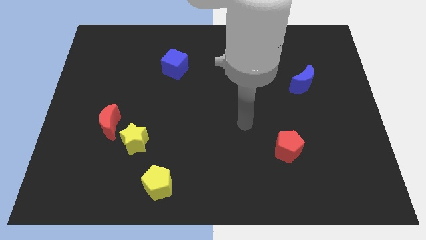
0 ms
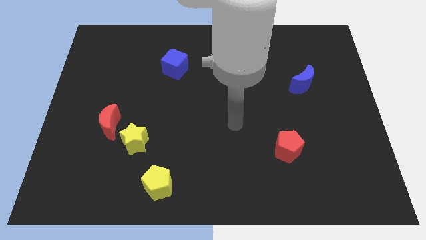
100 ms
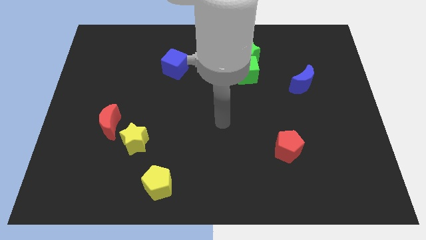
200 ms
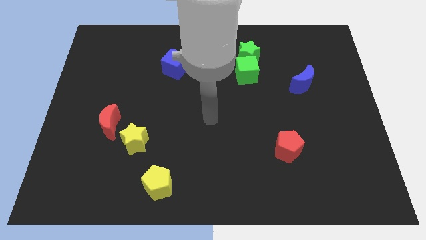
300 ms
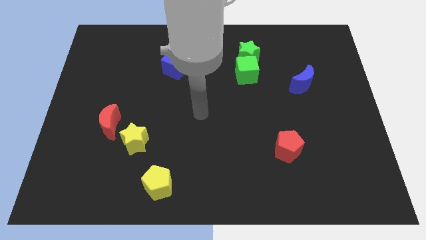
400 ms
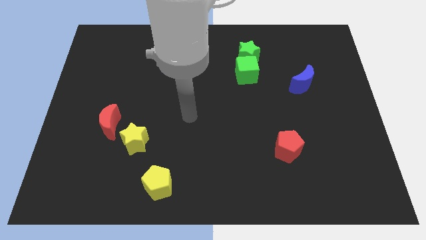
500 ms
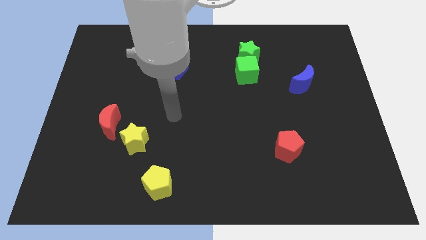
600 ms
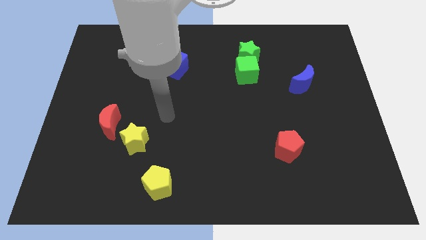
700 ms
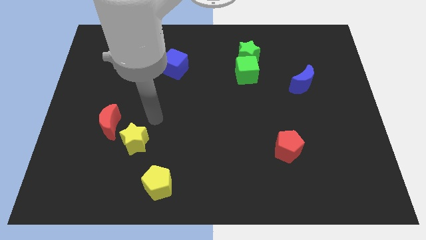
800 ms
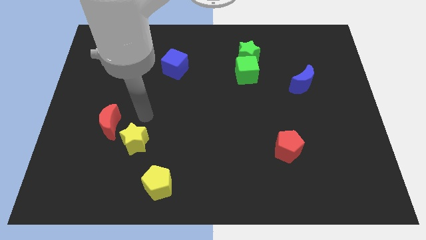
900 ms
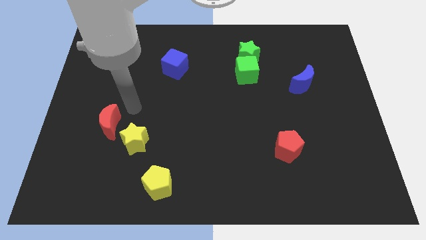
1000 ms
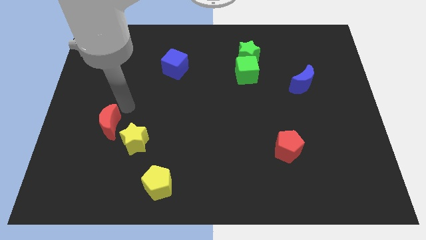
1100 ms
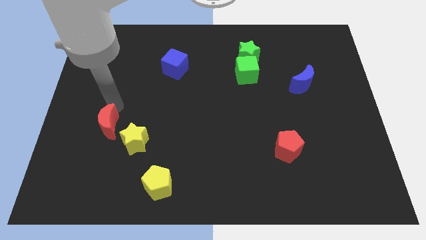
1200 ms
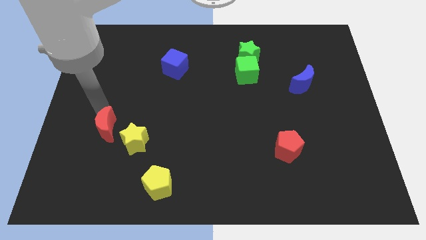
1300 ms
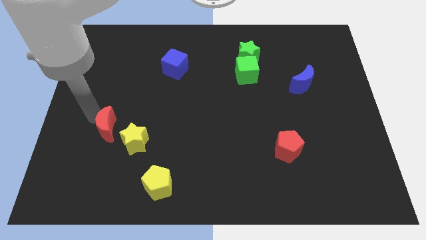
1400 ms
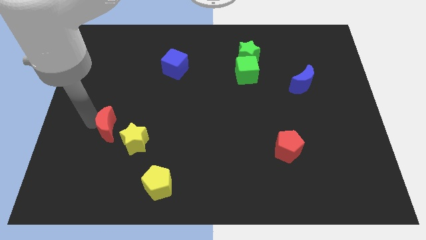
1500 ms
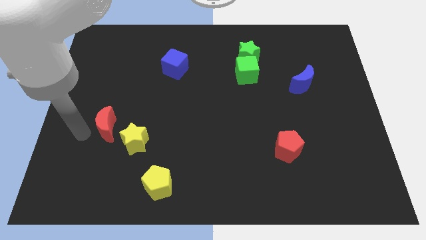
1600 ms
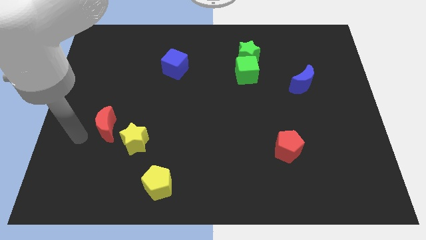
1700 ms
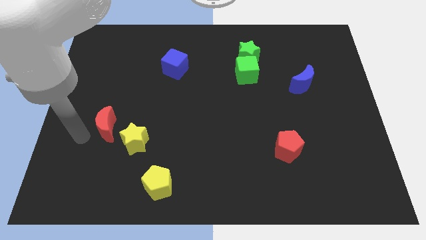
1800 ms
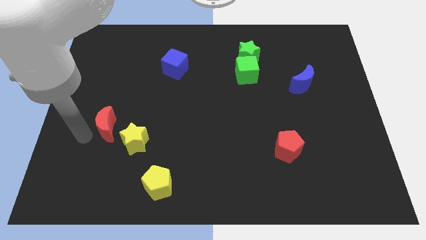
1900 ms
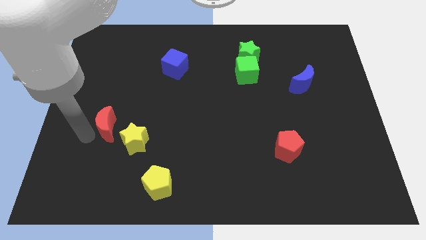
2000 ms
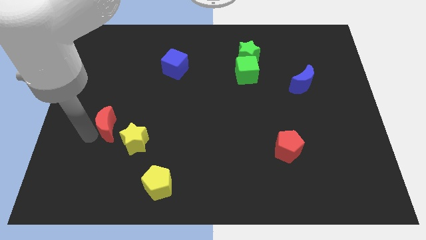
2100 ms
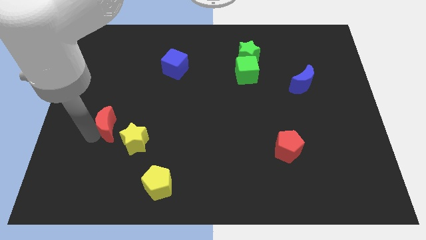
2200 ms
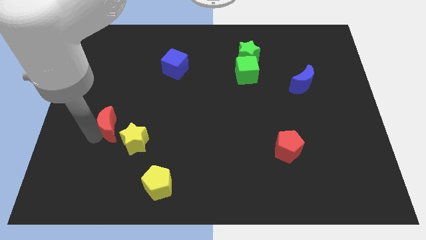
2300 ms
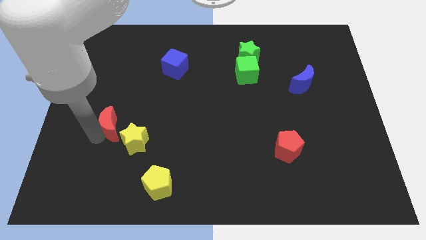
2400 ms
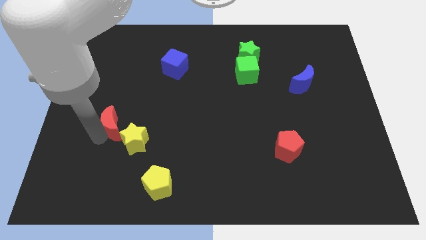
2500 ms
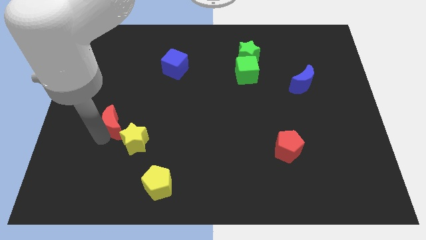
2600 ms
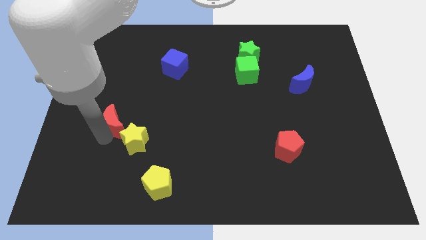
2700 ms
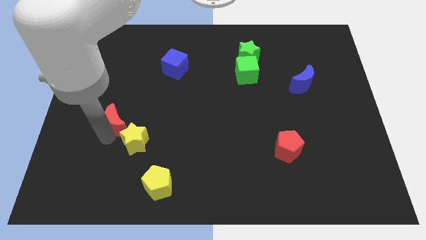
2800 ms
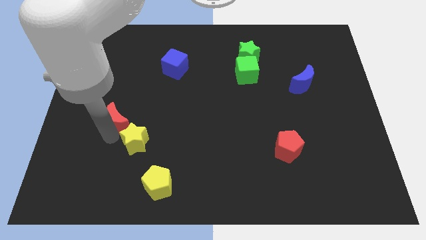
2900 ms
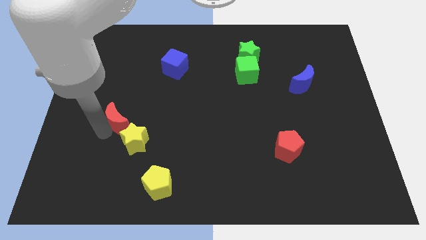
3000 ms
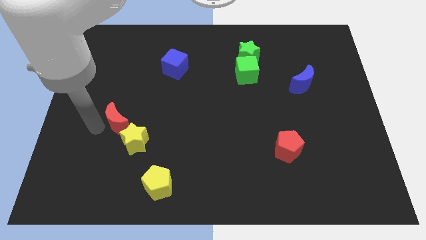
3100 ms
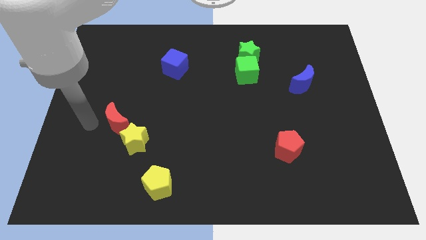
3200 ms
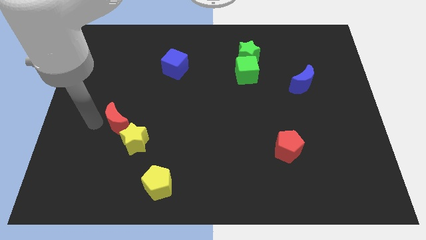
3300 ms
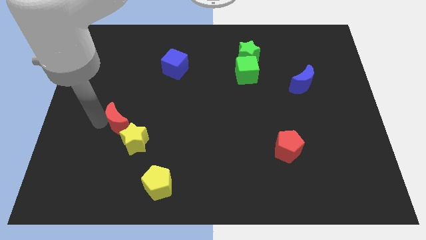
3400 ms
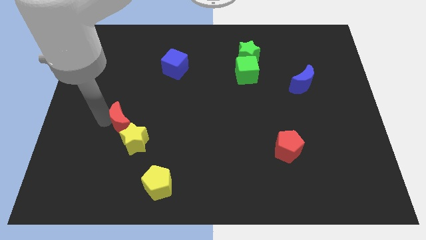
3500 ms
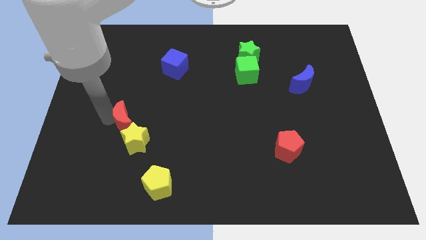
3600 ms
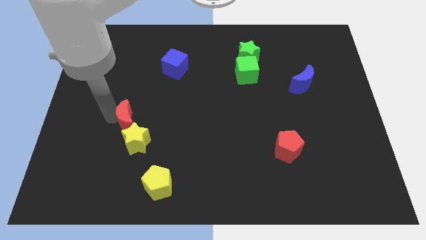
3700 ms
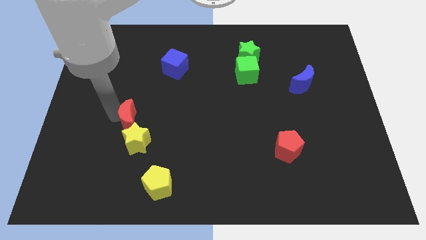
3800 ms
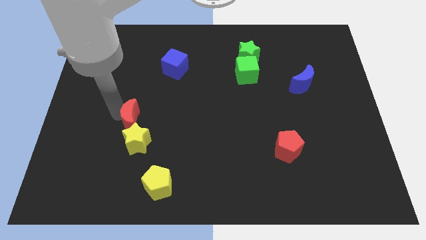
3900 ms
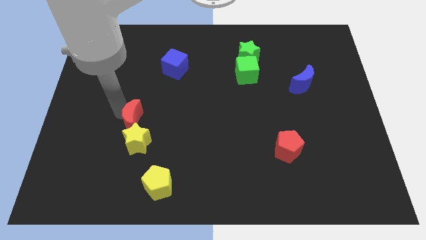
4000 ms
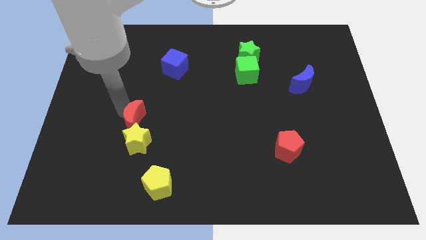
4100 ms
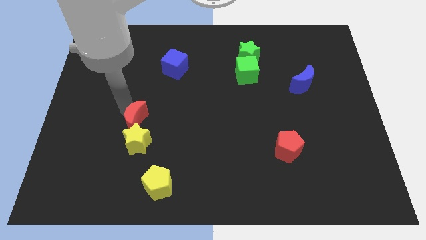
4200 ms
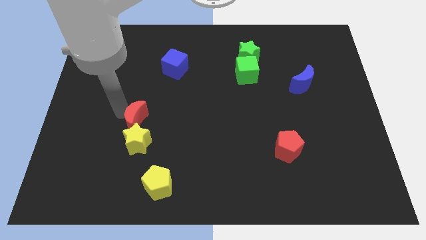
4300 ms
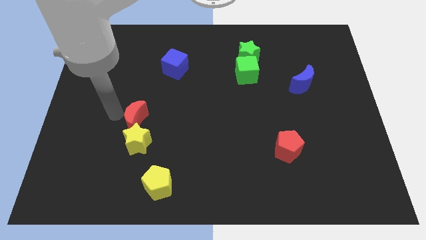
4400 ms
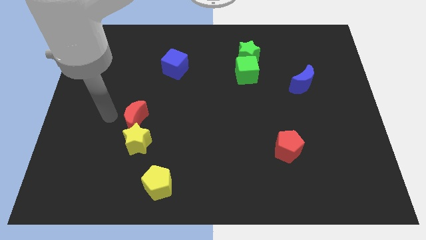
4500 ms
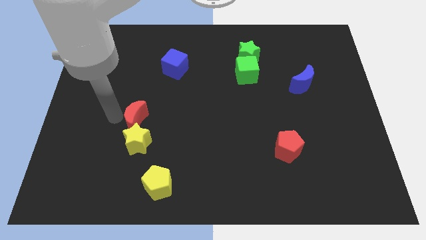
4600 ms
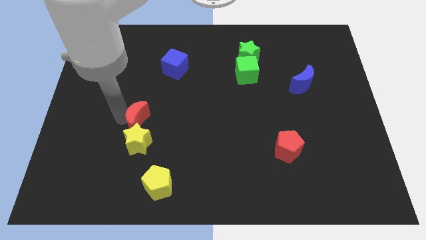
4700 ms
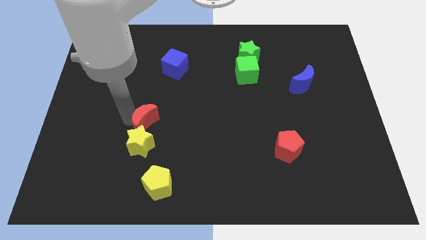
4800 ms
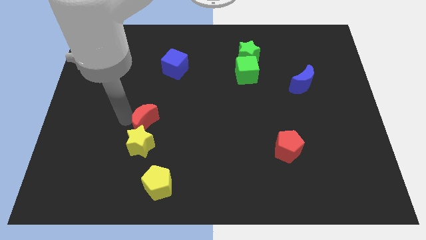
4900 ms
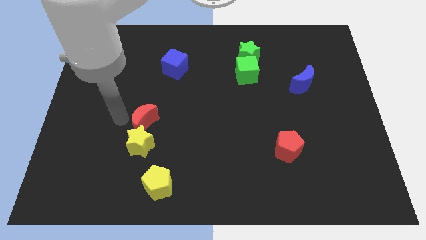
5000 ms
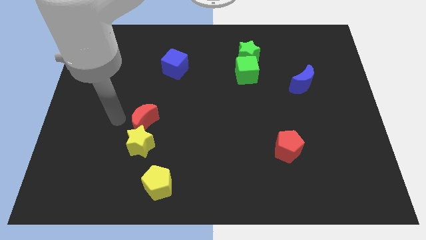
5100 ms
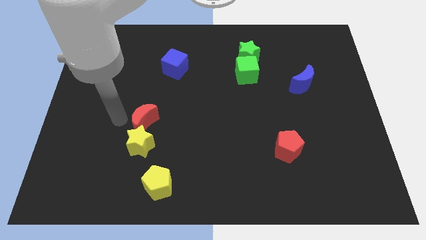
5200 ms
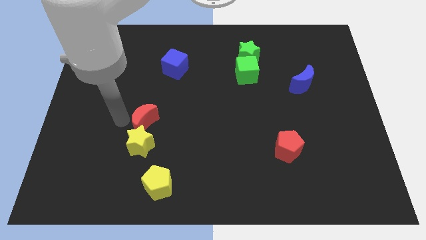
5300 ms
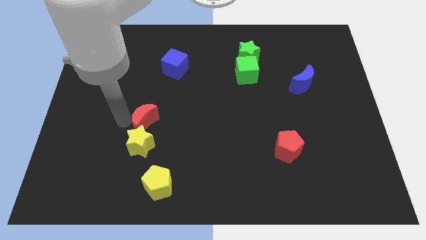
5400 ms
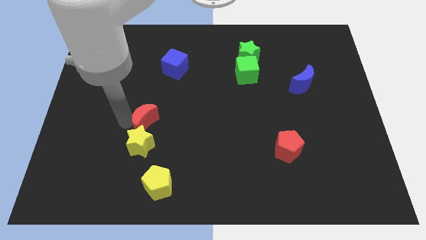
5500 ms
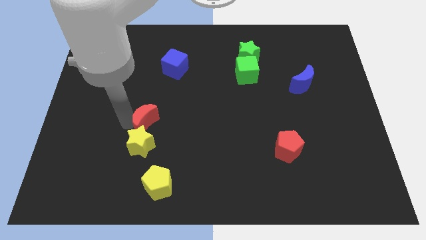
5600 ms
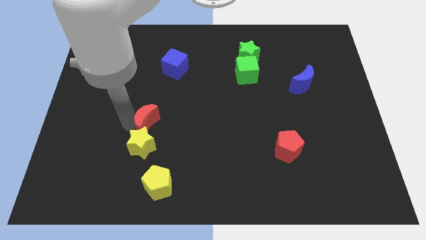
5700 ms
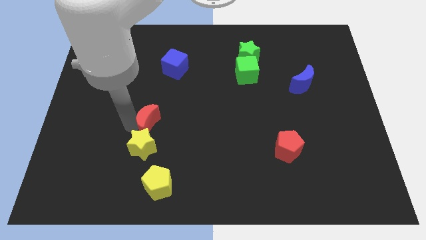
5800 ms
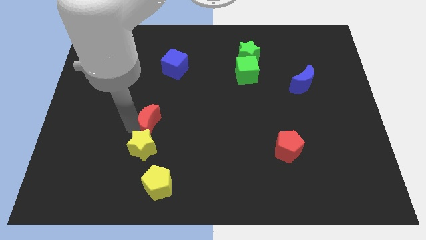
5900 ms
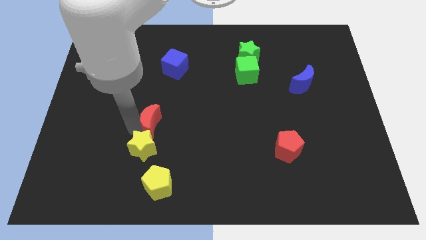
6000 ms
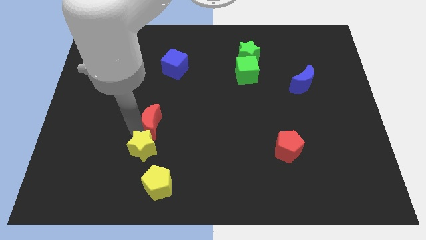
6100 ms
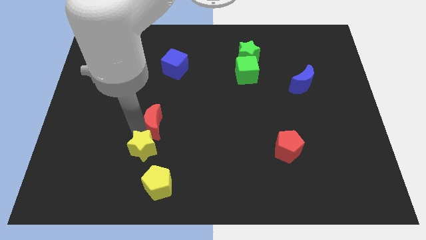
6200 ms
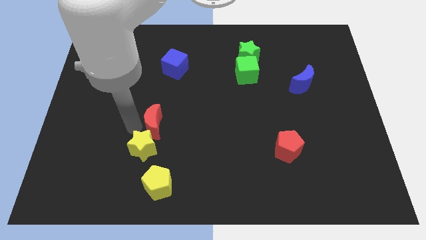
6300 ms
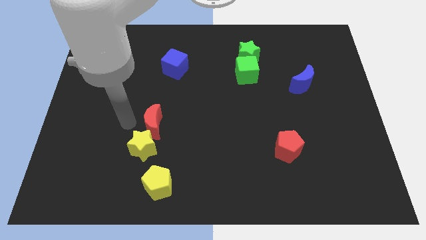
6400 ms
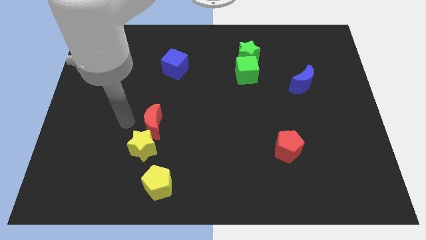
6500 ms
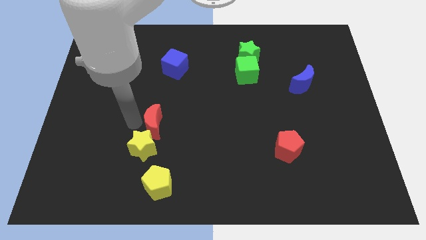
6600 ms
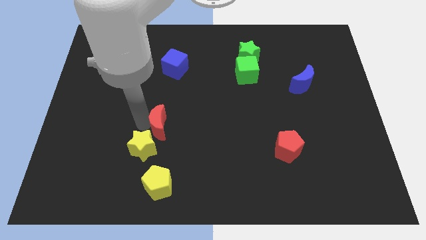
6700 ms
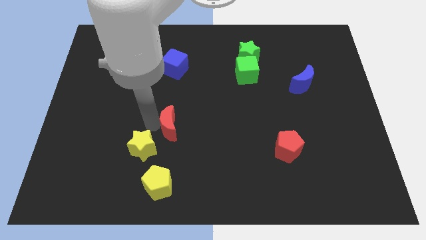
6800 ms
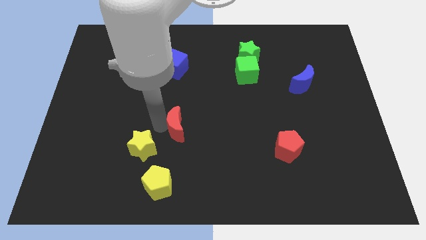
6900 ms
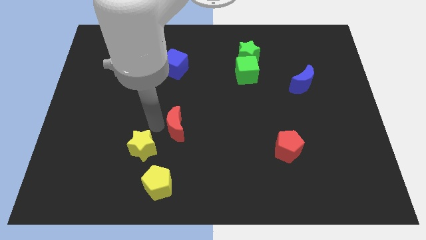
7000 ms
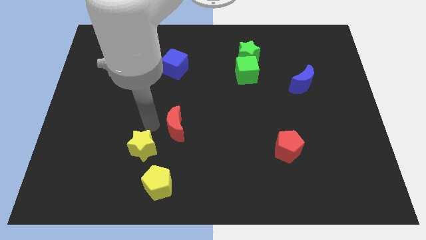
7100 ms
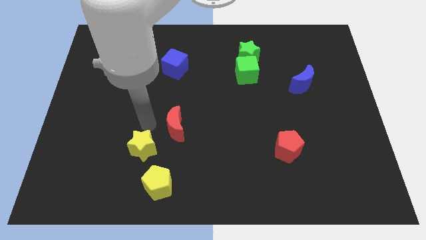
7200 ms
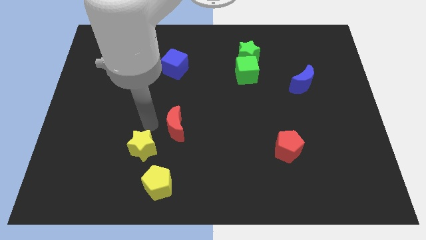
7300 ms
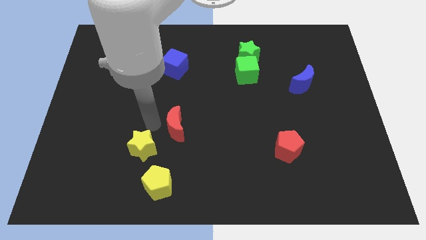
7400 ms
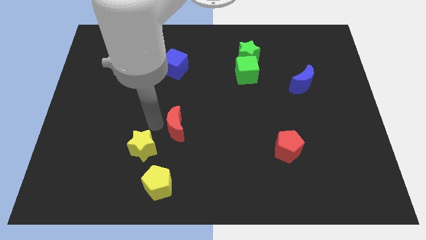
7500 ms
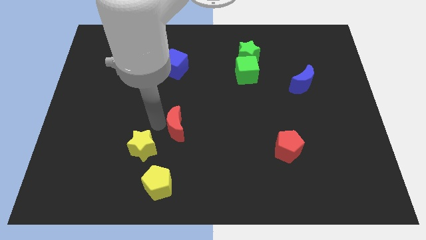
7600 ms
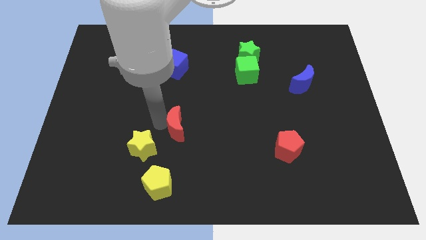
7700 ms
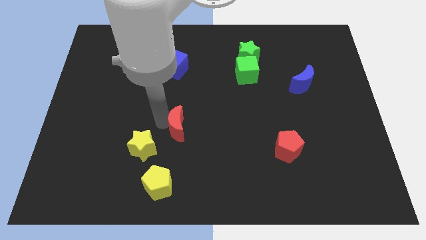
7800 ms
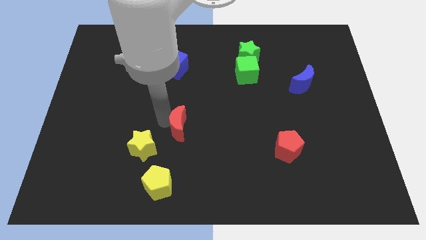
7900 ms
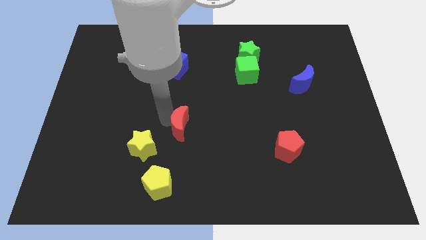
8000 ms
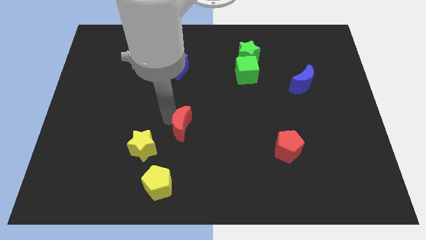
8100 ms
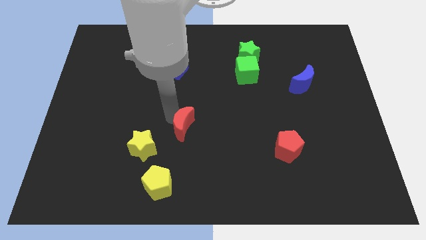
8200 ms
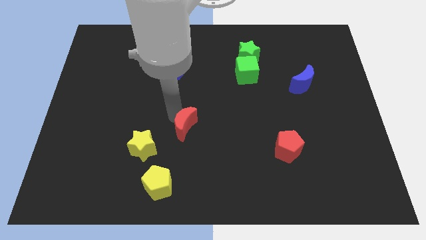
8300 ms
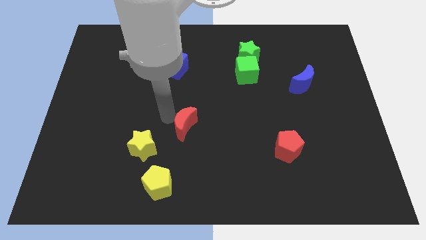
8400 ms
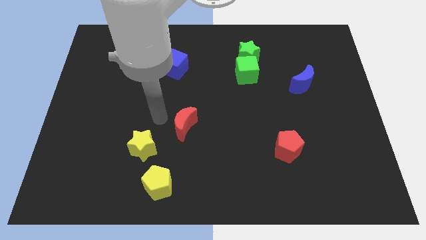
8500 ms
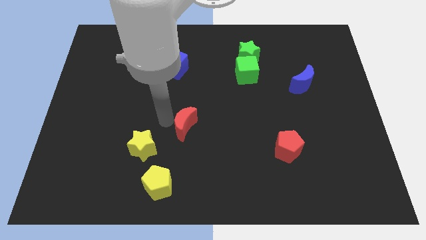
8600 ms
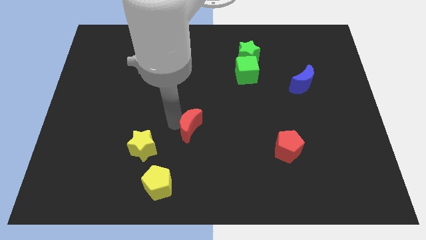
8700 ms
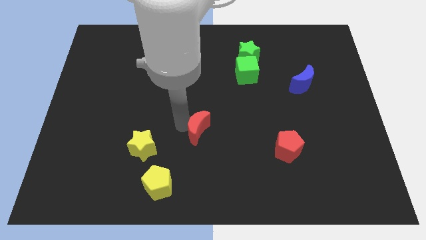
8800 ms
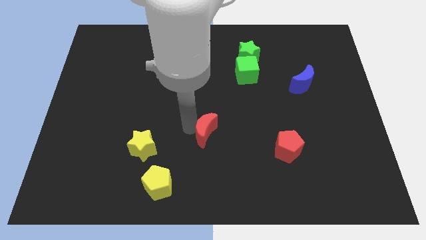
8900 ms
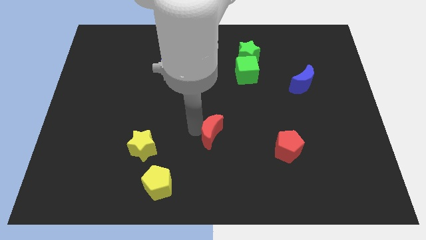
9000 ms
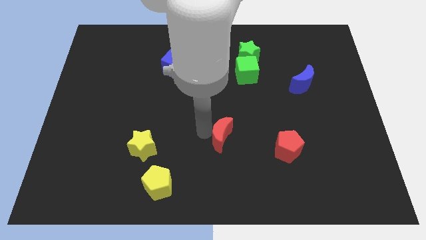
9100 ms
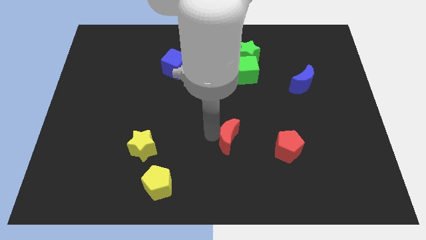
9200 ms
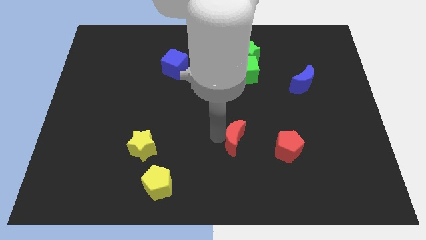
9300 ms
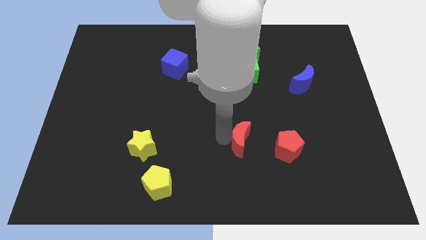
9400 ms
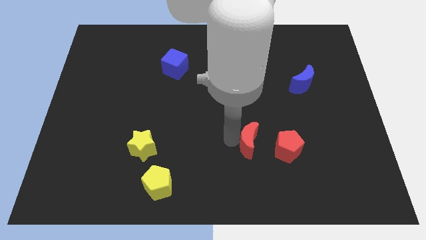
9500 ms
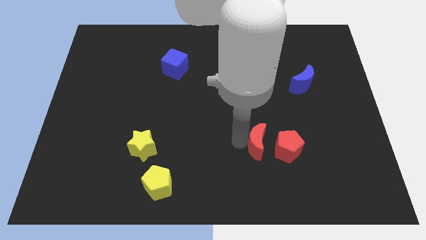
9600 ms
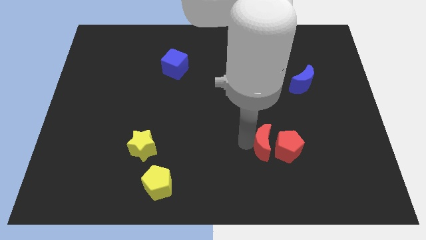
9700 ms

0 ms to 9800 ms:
slide the red moon close to the red pentagon
